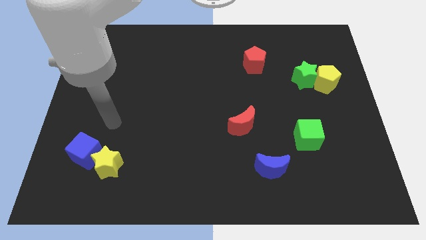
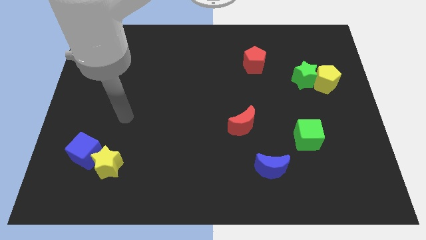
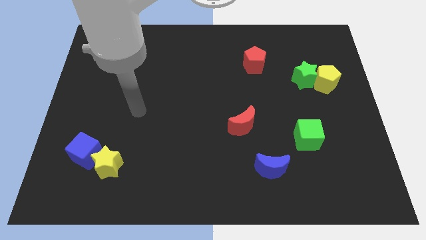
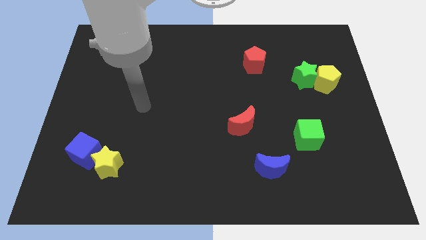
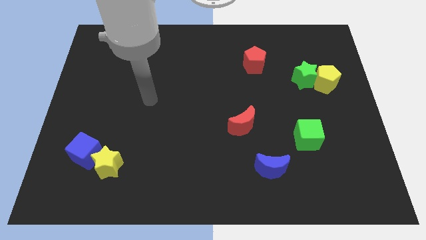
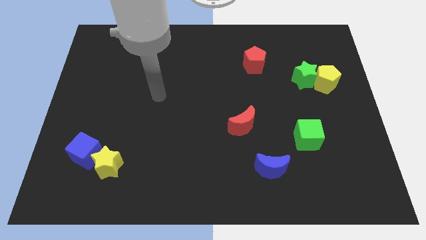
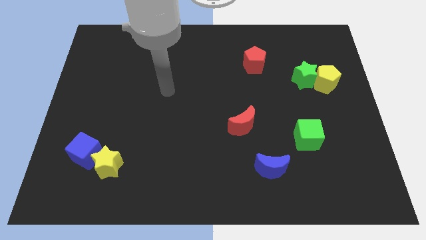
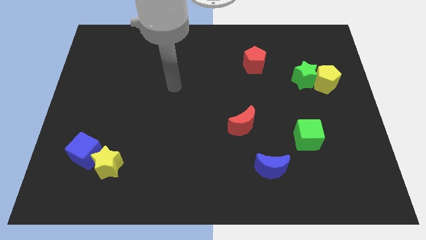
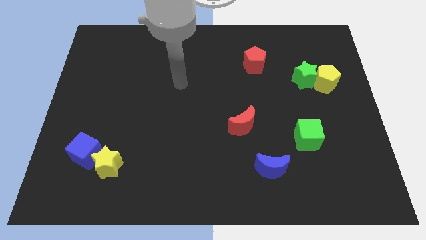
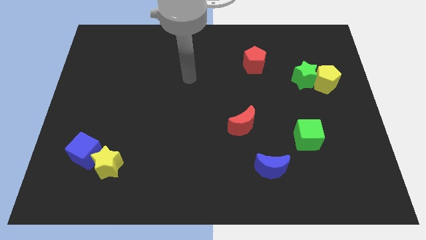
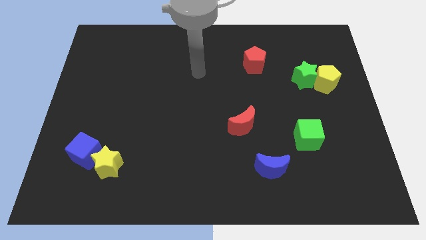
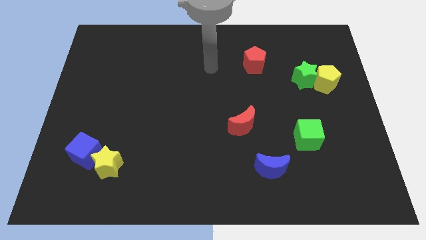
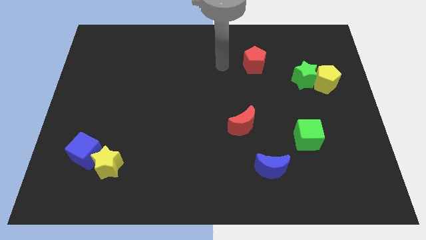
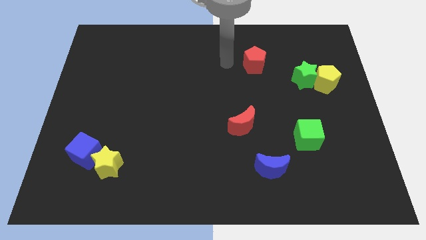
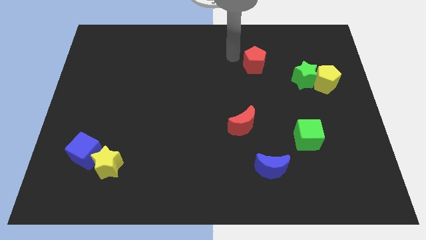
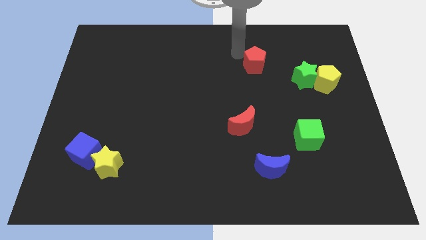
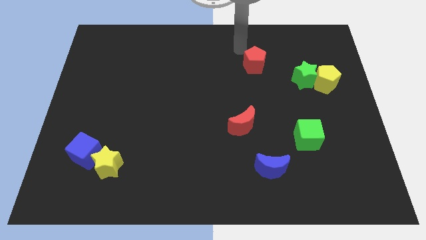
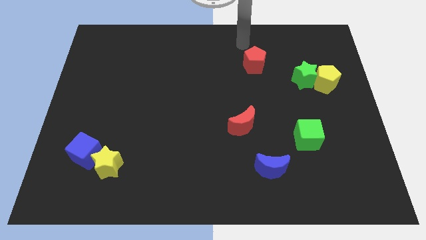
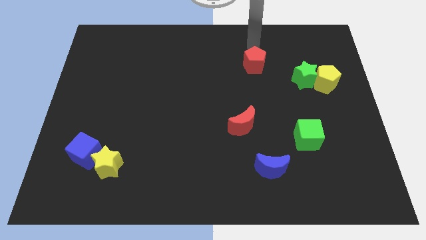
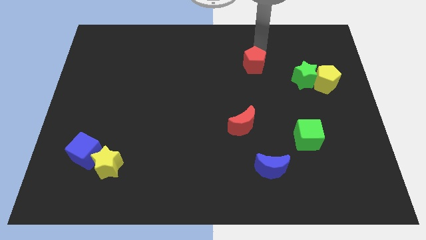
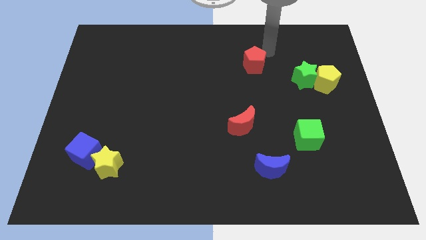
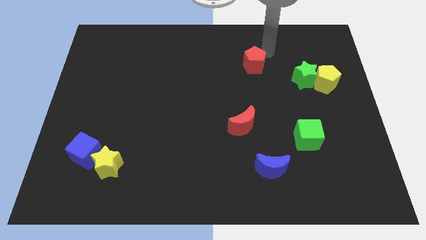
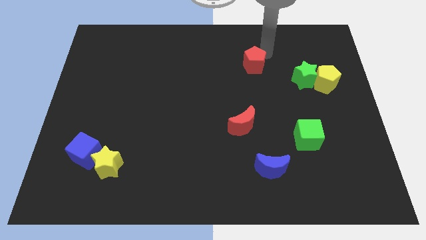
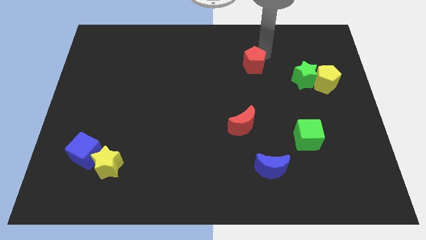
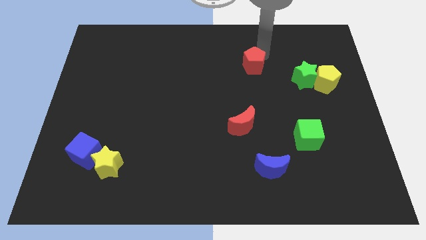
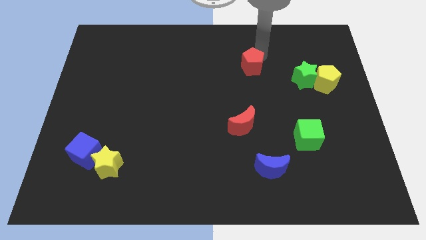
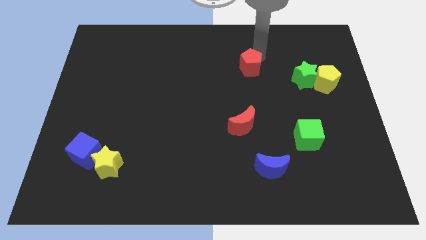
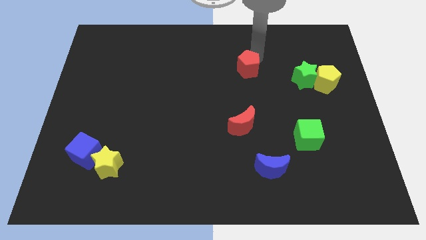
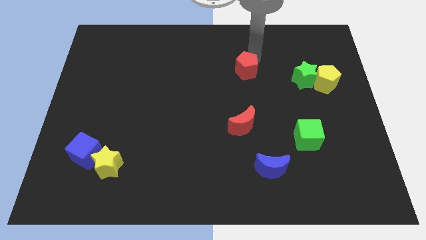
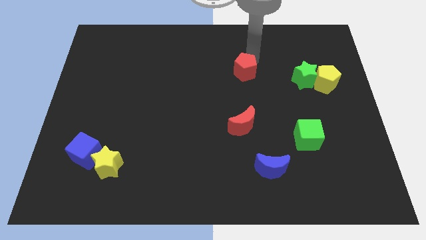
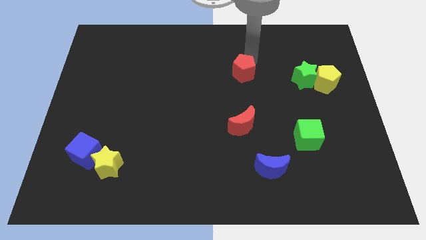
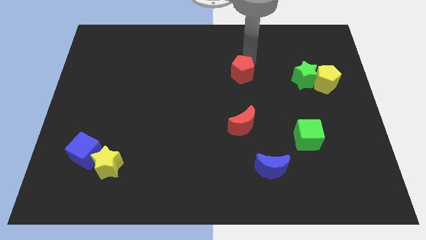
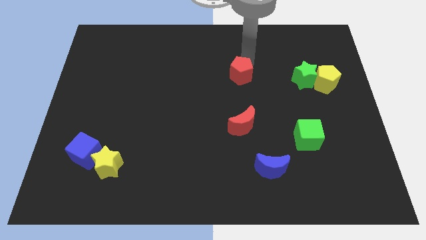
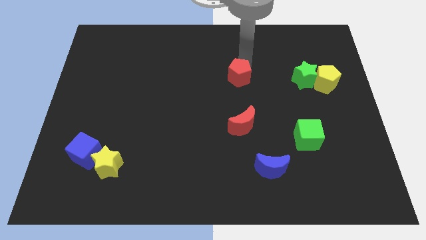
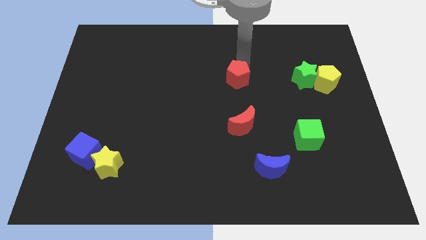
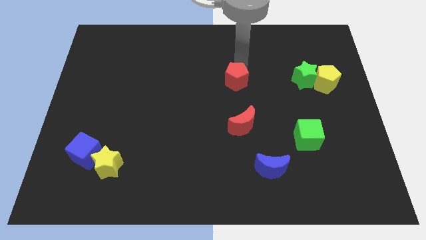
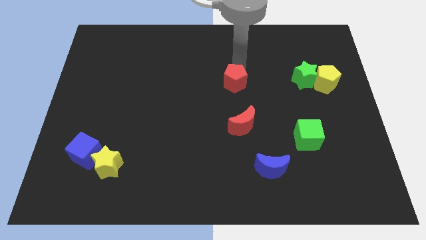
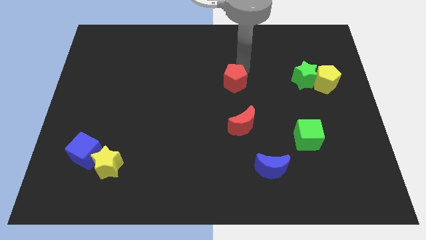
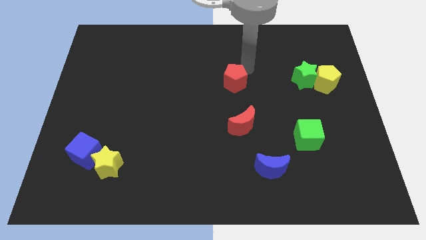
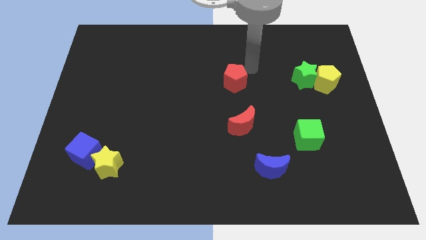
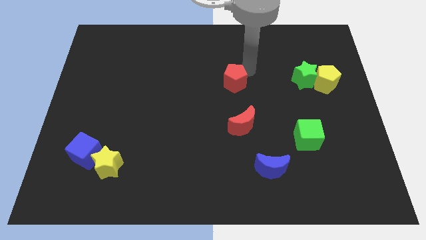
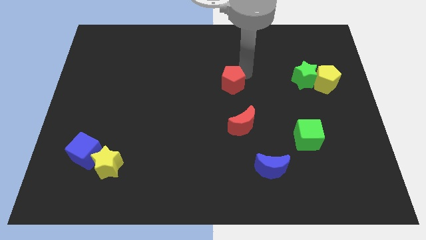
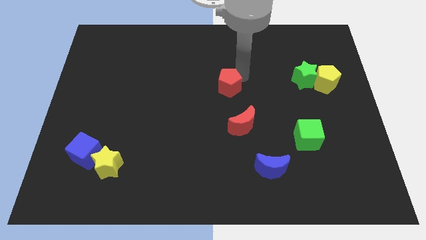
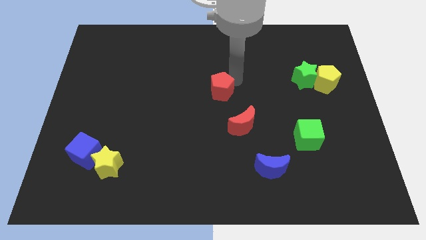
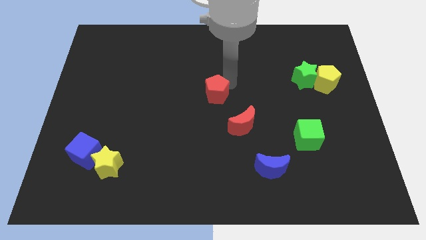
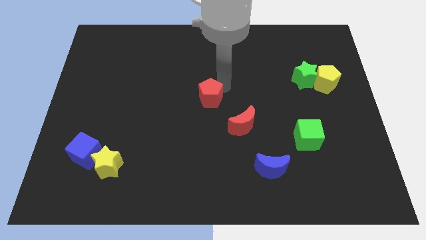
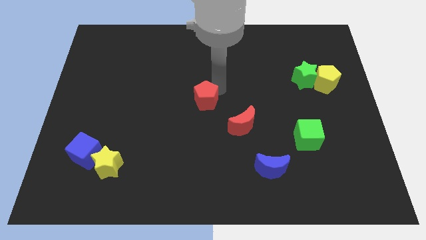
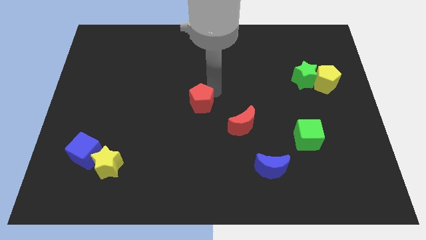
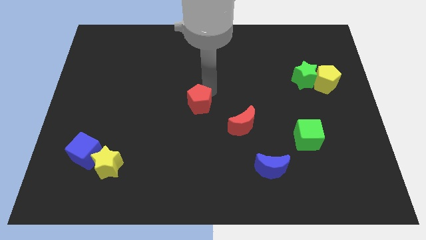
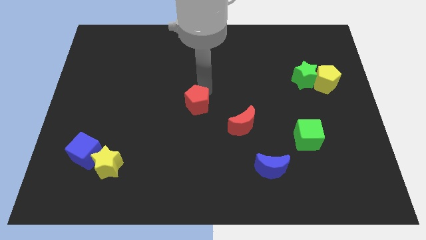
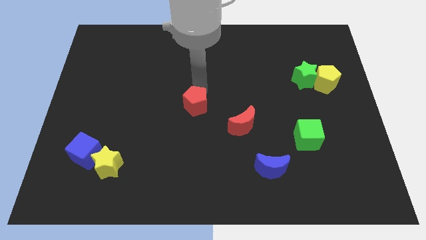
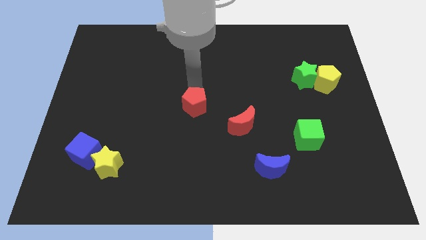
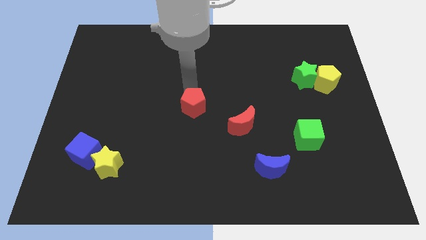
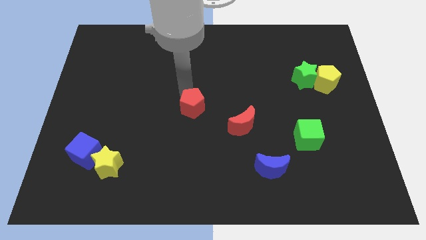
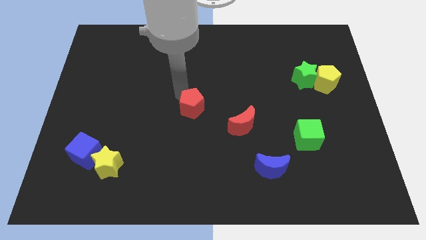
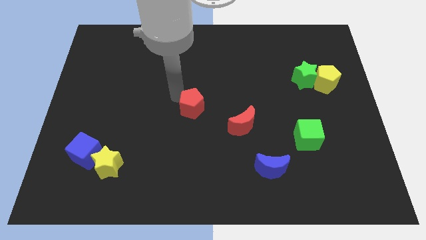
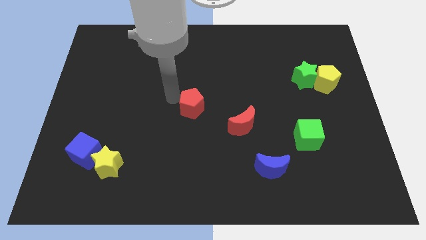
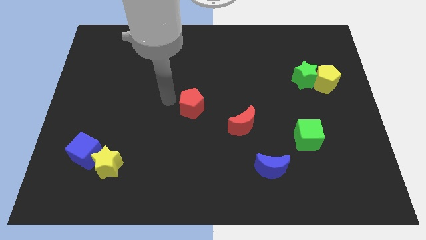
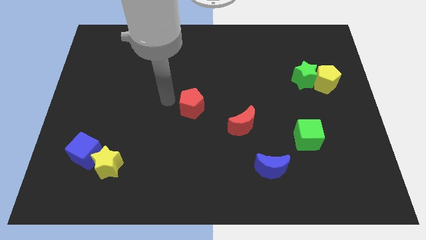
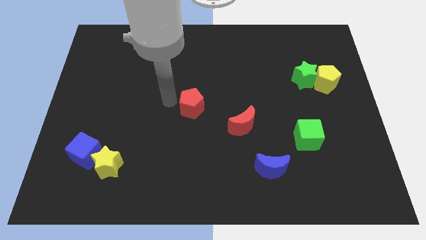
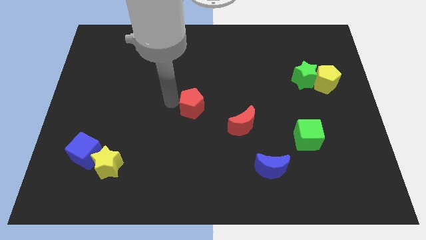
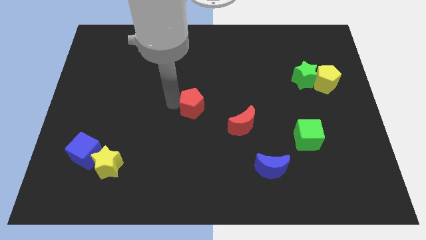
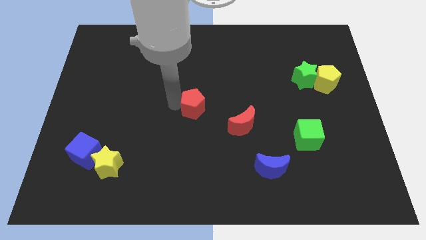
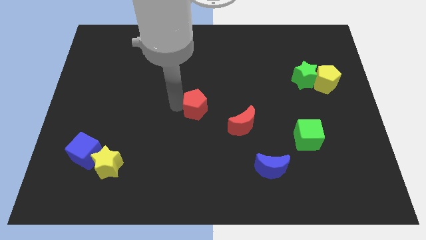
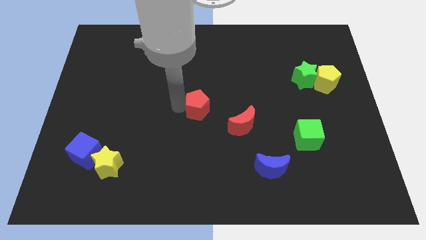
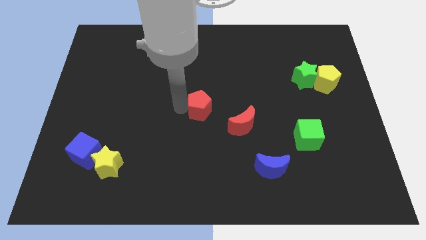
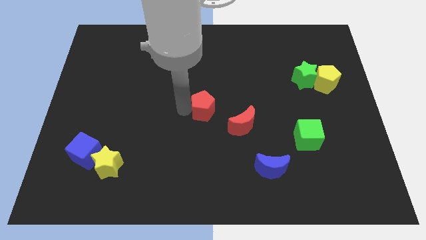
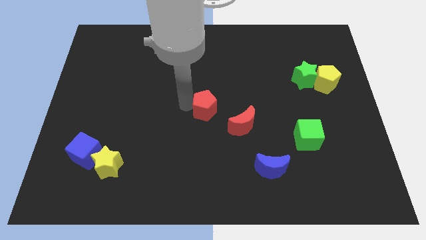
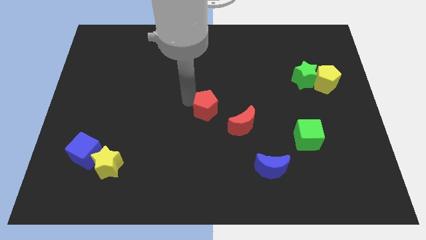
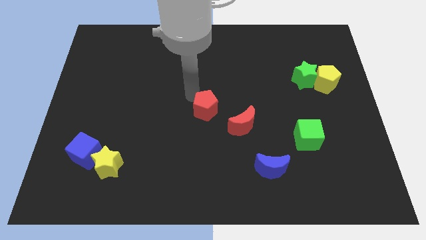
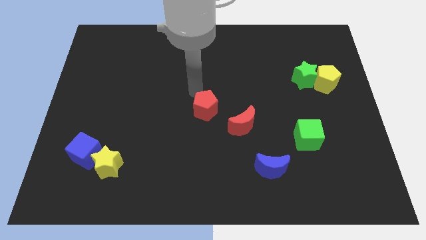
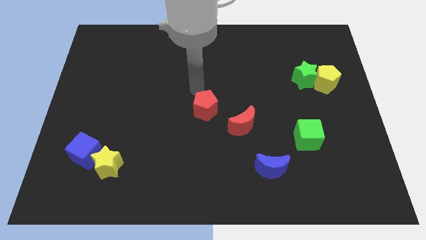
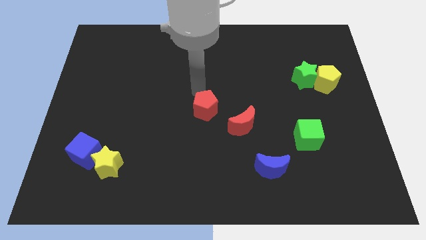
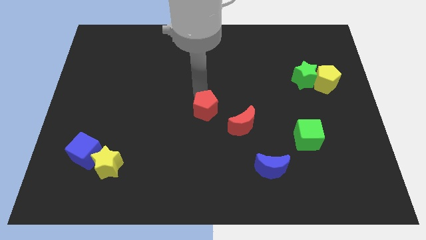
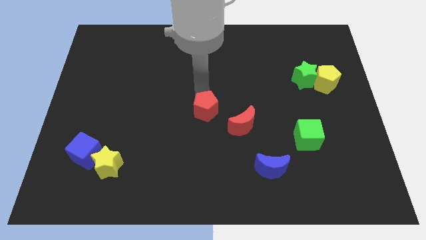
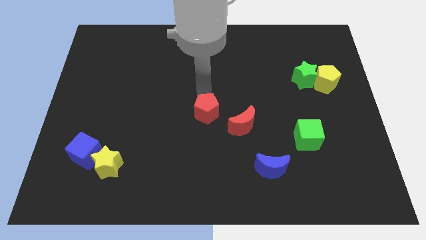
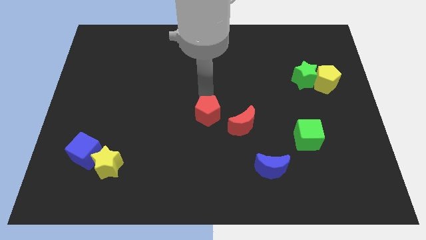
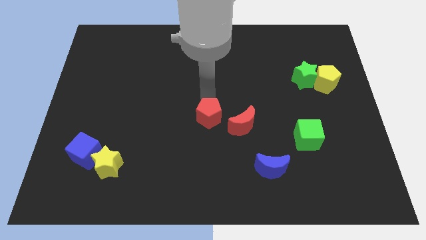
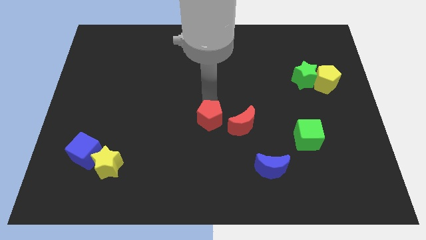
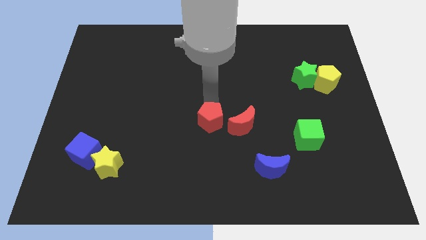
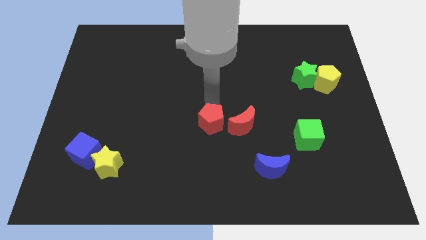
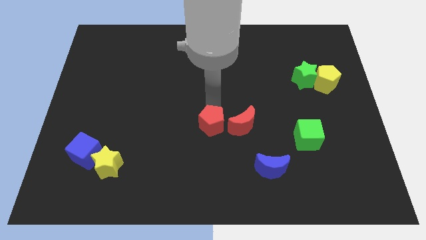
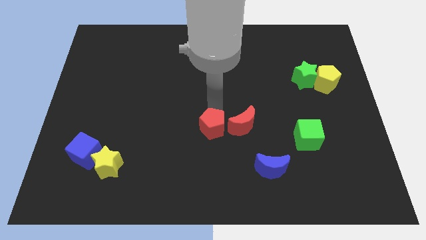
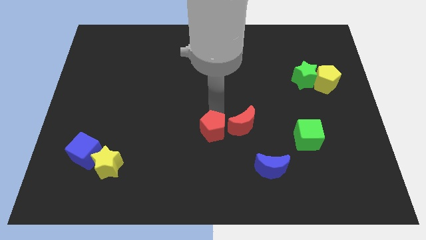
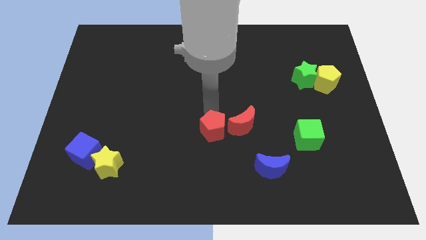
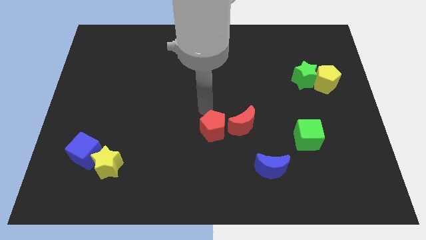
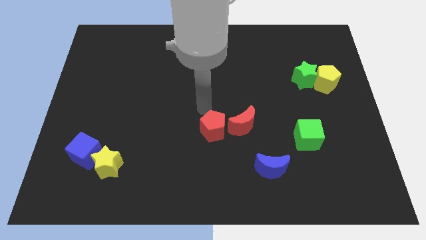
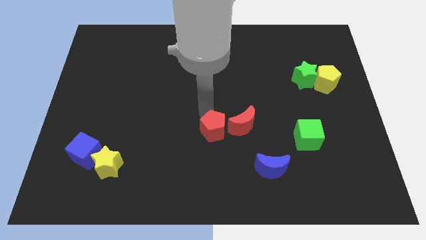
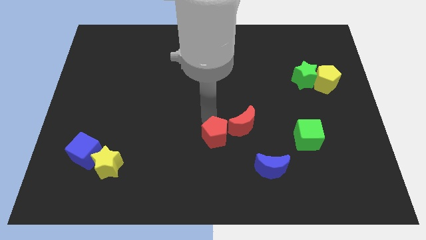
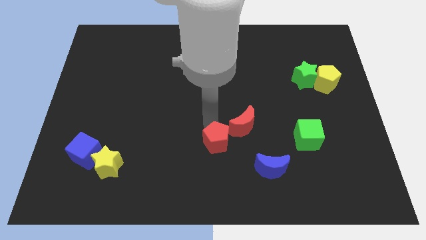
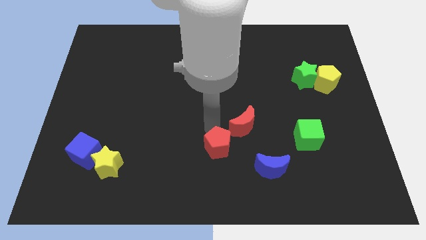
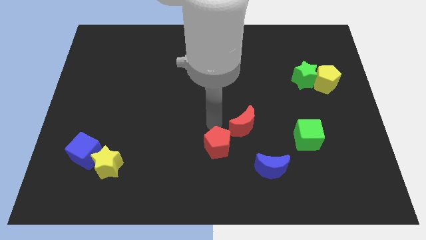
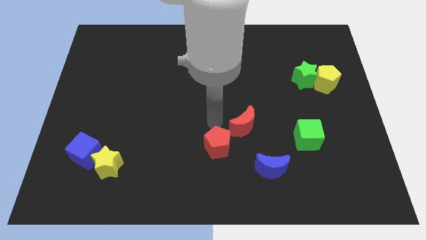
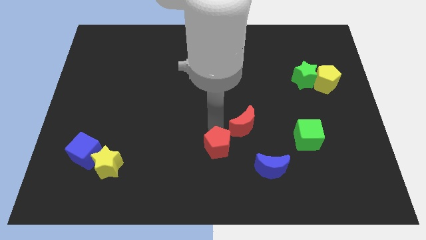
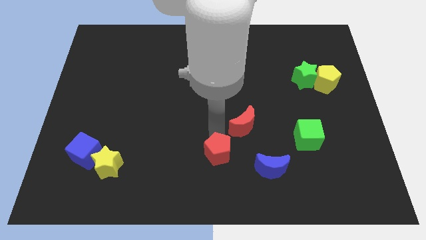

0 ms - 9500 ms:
move the red pentagon just left of the blue moon
